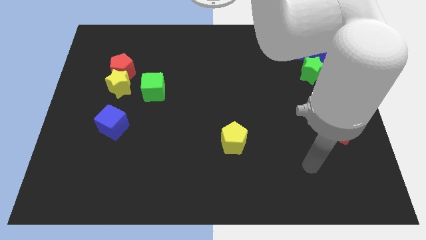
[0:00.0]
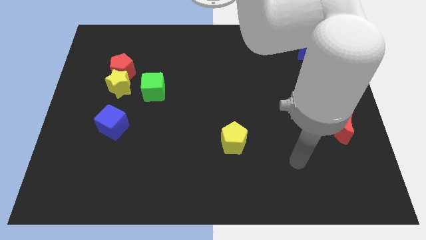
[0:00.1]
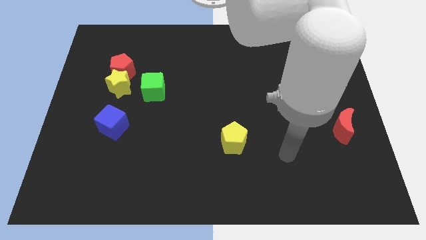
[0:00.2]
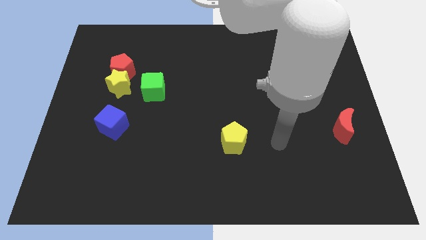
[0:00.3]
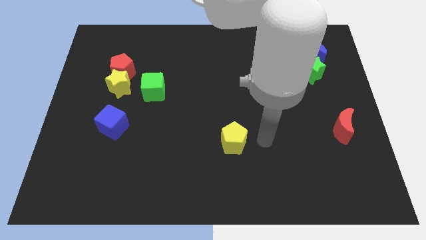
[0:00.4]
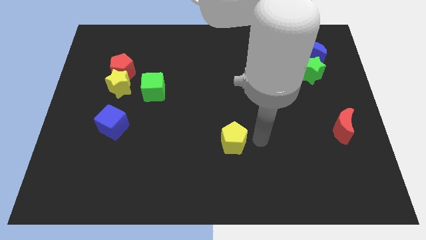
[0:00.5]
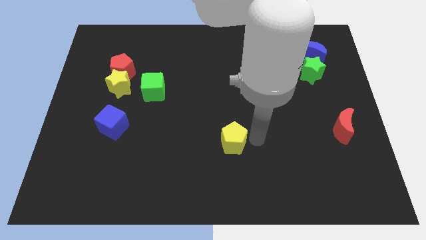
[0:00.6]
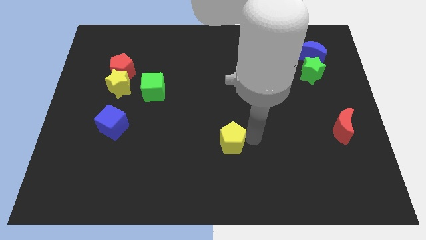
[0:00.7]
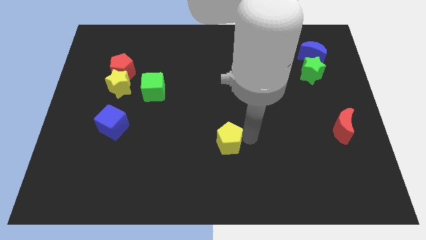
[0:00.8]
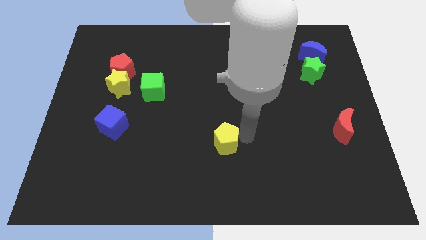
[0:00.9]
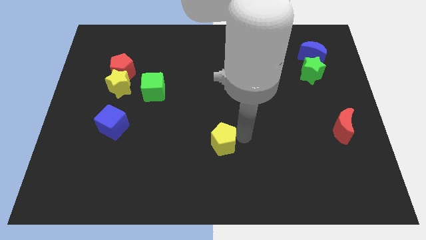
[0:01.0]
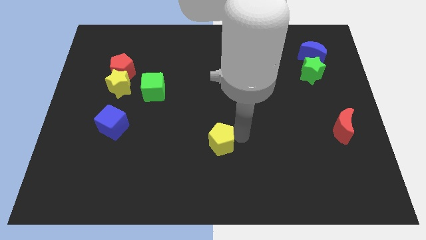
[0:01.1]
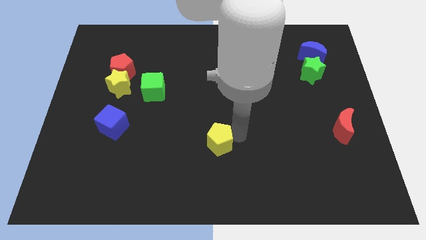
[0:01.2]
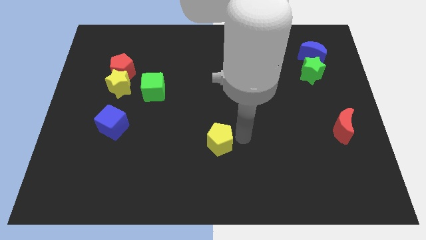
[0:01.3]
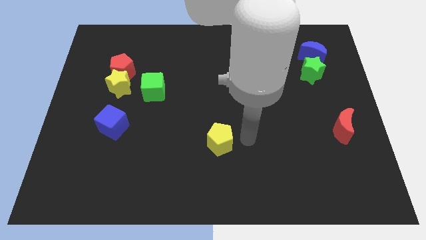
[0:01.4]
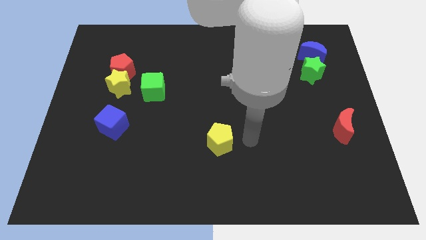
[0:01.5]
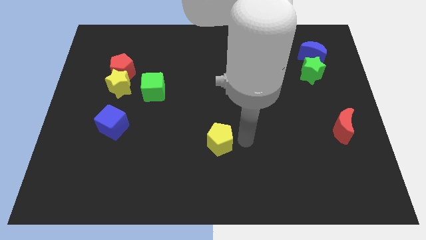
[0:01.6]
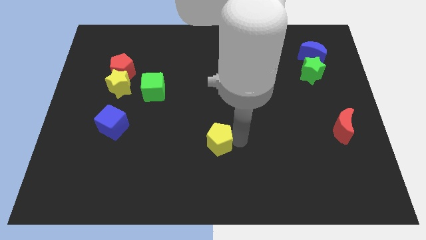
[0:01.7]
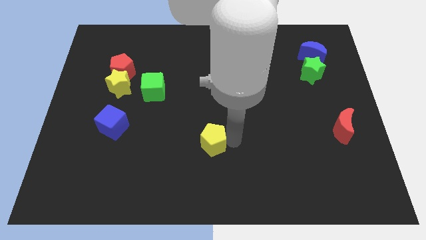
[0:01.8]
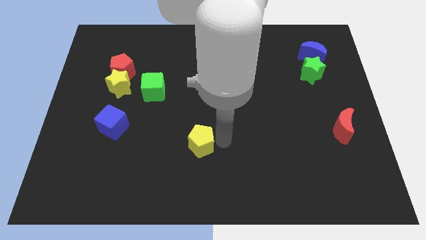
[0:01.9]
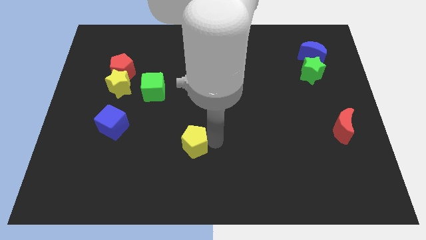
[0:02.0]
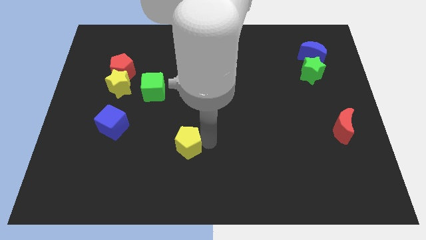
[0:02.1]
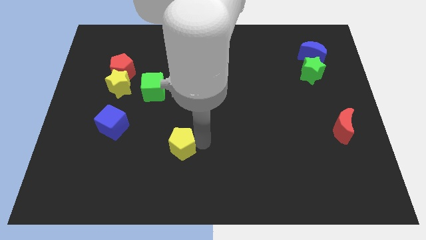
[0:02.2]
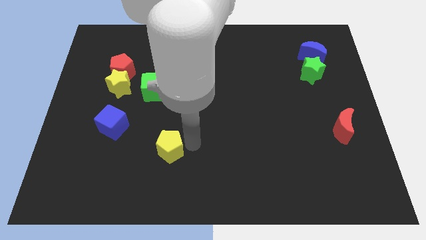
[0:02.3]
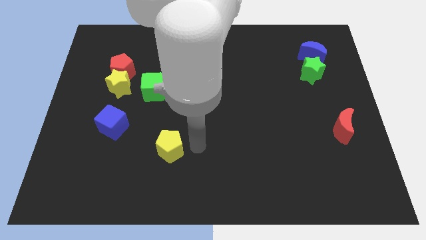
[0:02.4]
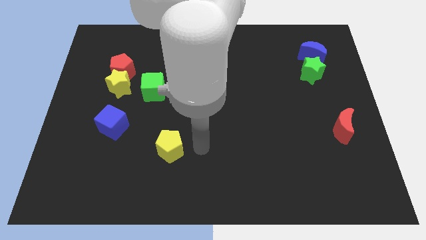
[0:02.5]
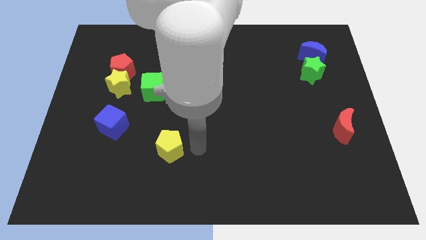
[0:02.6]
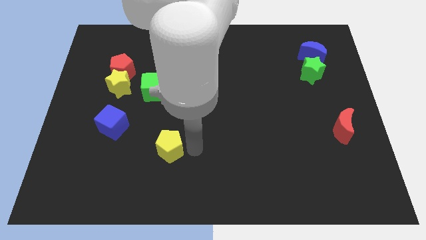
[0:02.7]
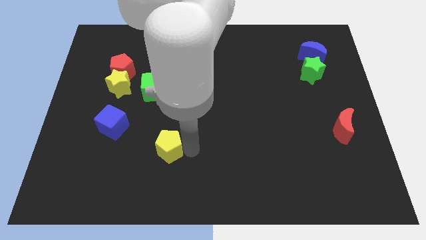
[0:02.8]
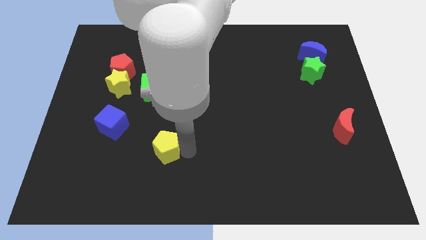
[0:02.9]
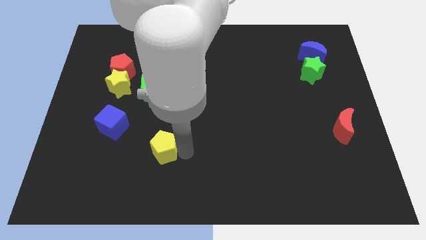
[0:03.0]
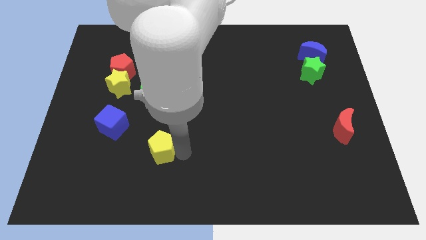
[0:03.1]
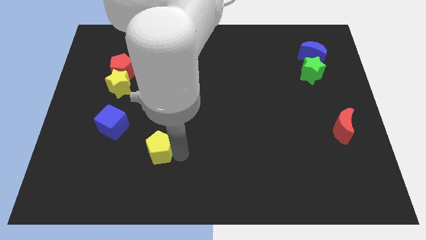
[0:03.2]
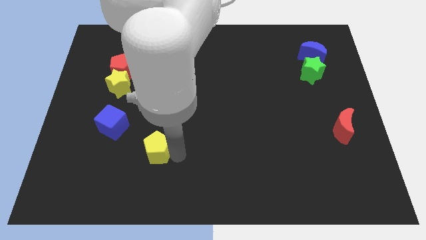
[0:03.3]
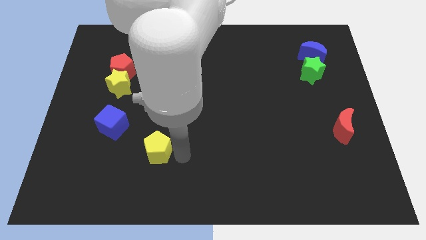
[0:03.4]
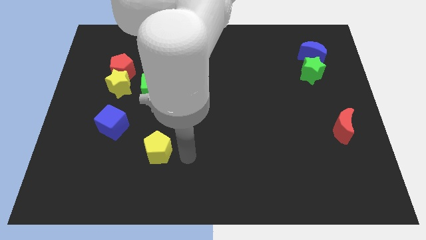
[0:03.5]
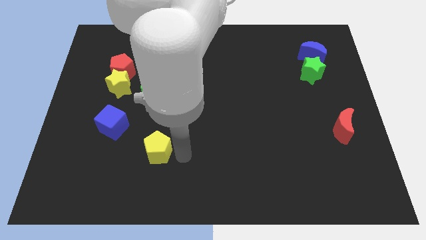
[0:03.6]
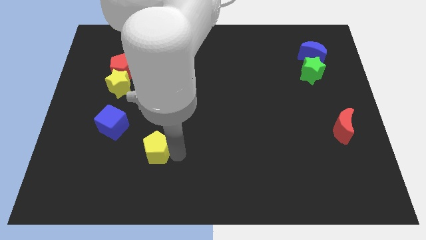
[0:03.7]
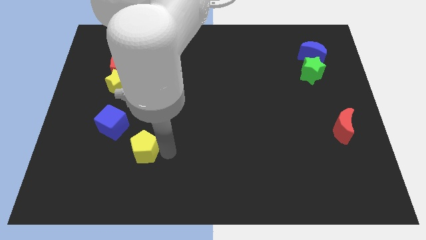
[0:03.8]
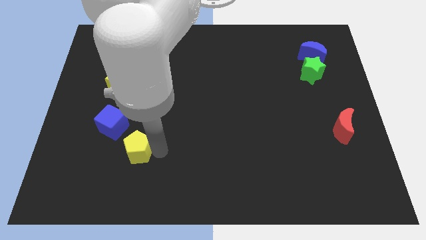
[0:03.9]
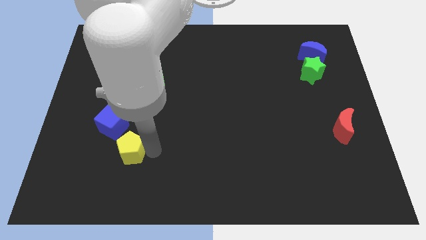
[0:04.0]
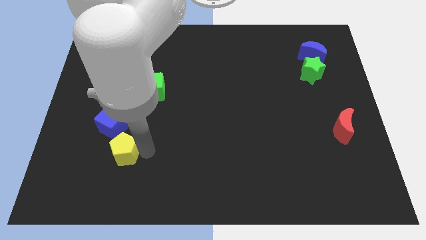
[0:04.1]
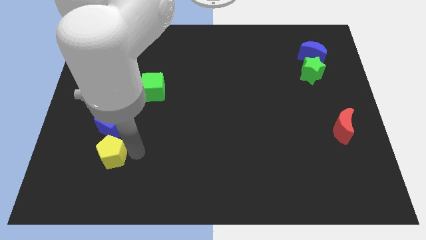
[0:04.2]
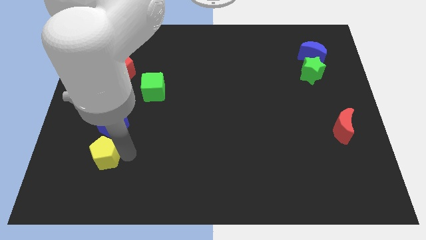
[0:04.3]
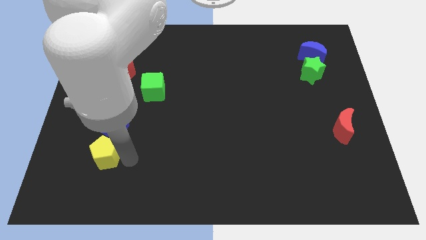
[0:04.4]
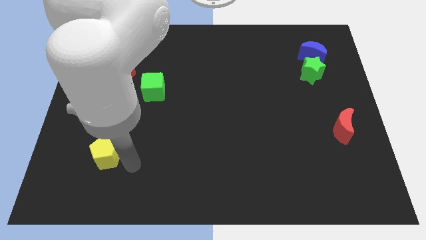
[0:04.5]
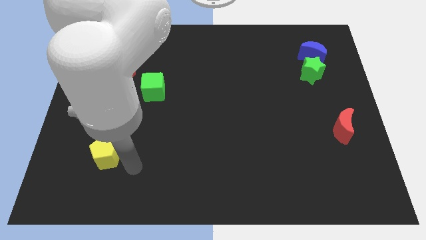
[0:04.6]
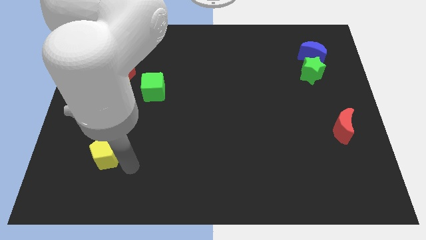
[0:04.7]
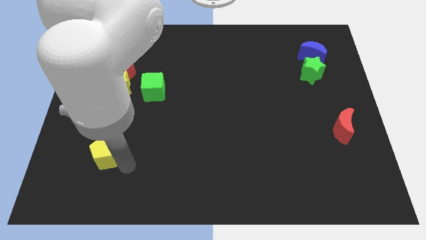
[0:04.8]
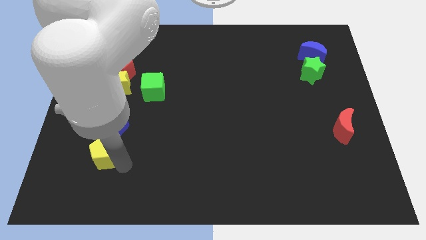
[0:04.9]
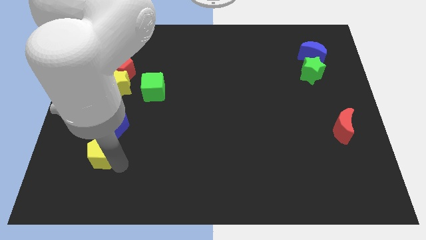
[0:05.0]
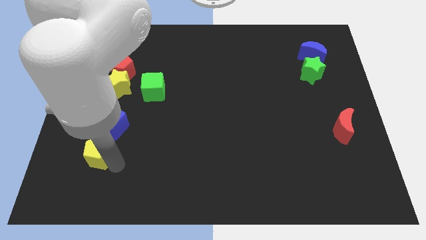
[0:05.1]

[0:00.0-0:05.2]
push the yellow pentagon diagonally down and to the left of the blue cube

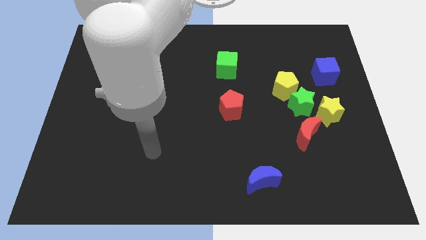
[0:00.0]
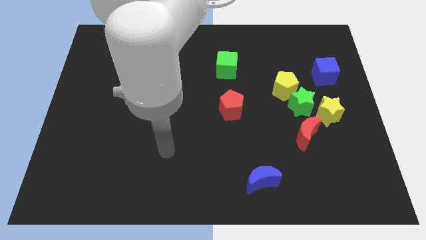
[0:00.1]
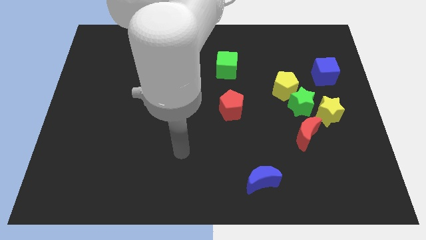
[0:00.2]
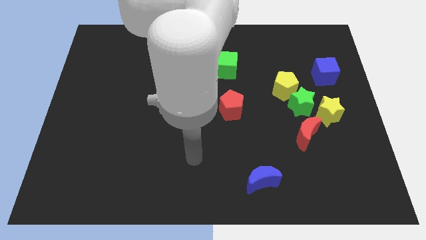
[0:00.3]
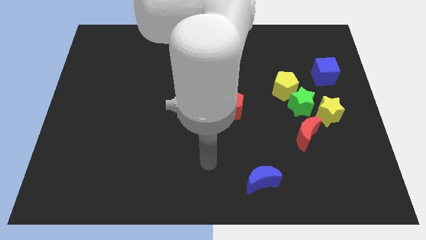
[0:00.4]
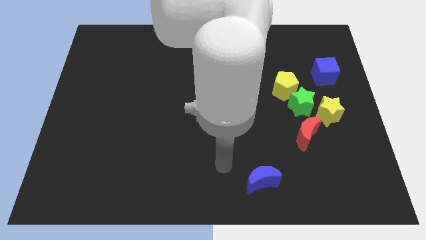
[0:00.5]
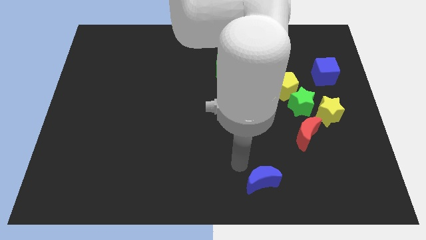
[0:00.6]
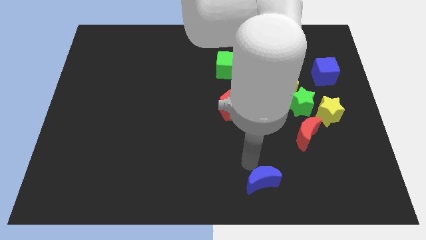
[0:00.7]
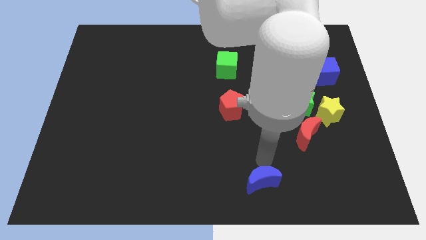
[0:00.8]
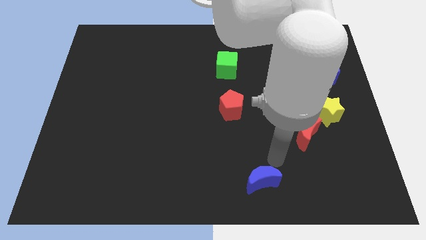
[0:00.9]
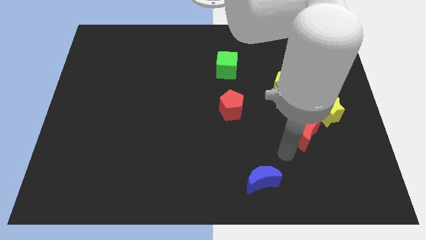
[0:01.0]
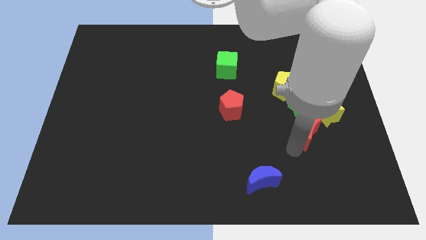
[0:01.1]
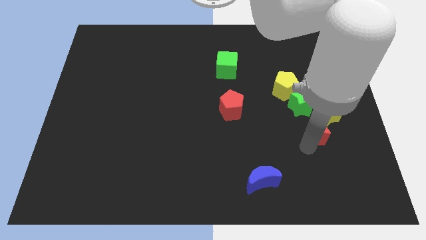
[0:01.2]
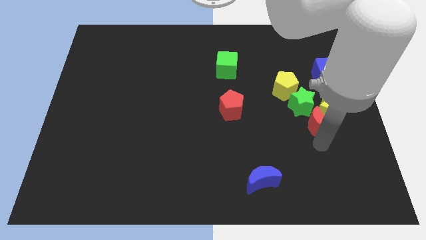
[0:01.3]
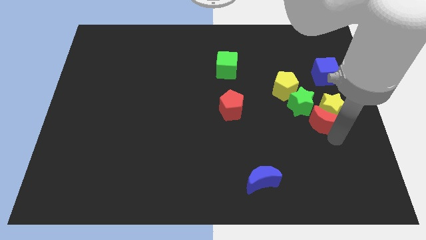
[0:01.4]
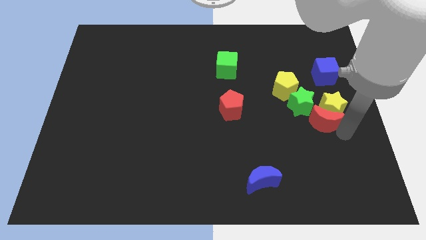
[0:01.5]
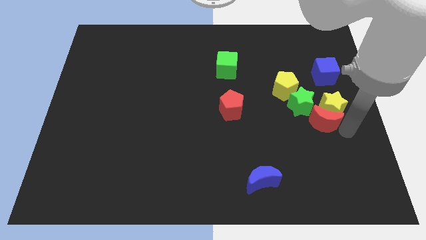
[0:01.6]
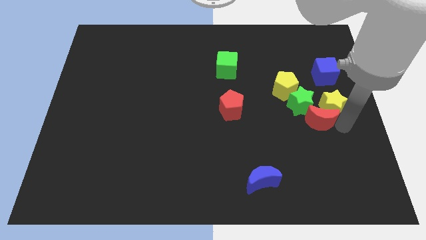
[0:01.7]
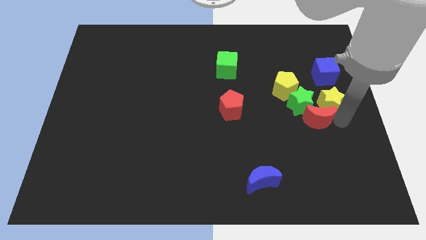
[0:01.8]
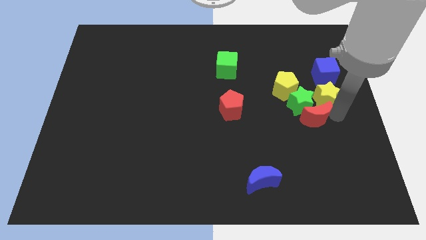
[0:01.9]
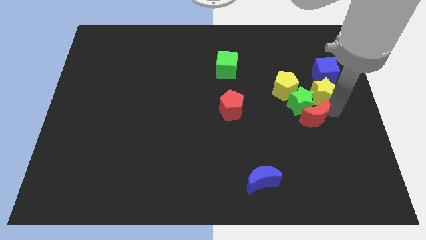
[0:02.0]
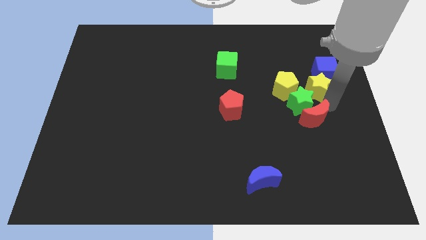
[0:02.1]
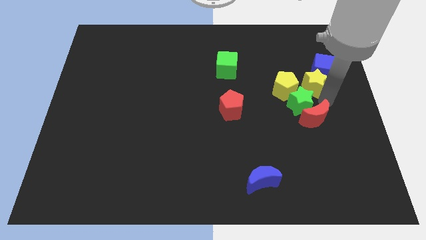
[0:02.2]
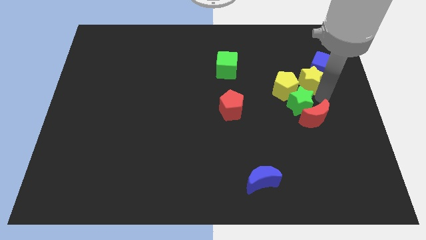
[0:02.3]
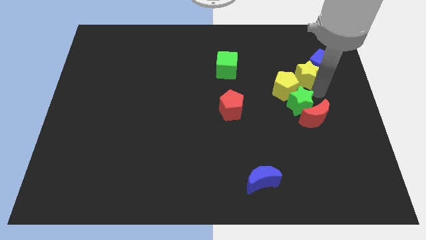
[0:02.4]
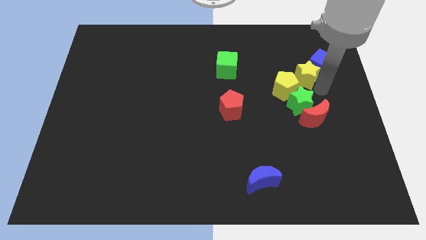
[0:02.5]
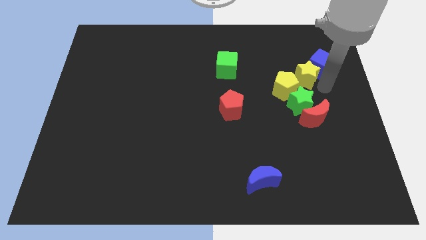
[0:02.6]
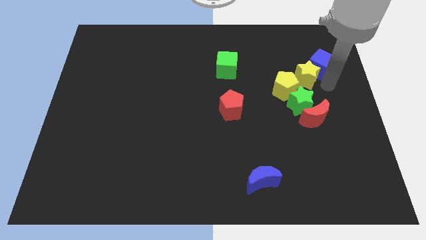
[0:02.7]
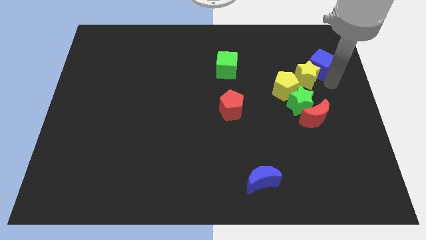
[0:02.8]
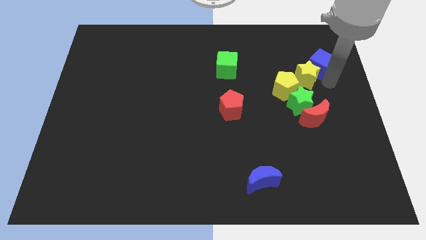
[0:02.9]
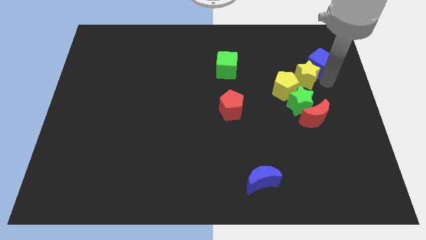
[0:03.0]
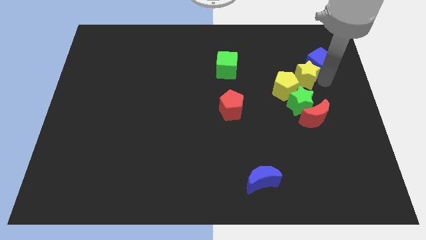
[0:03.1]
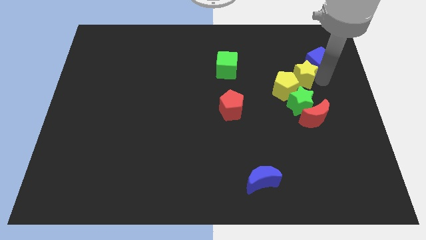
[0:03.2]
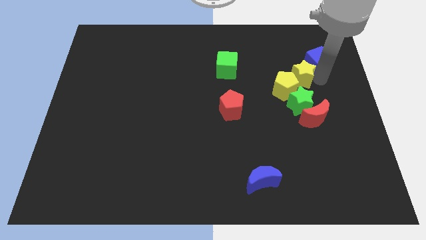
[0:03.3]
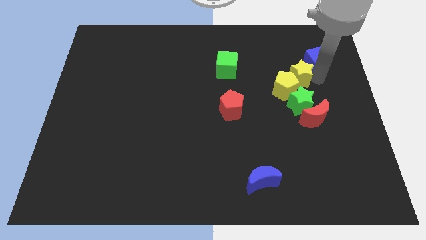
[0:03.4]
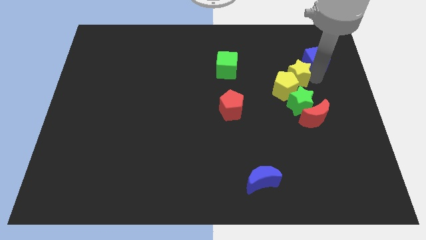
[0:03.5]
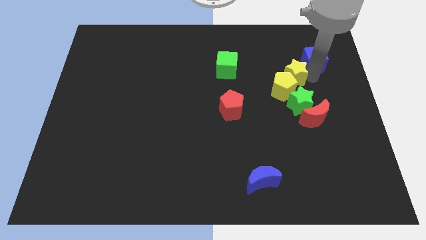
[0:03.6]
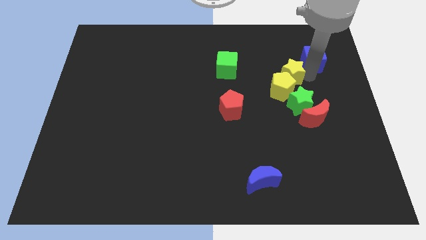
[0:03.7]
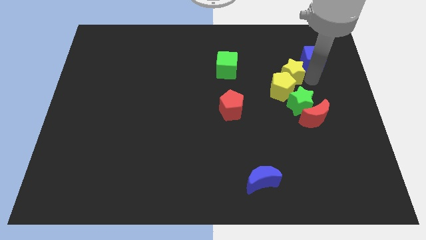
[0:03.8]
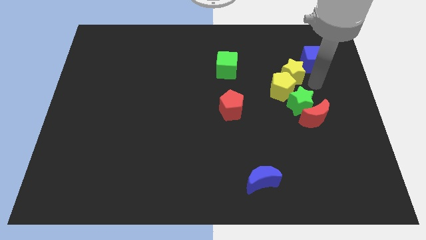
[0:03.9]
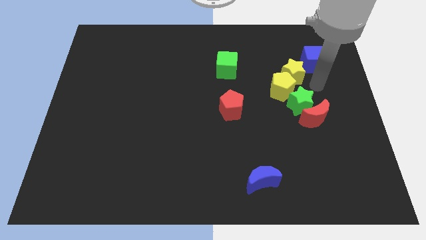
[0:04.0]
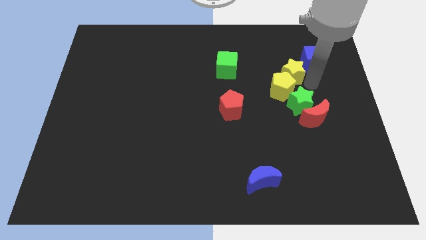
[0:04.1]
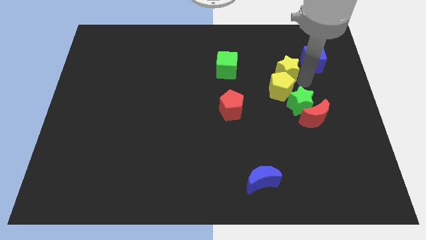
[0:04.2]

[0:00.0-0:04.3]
push the yellow star to the right of the green cube
